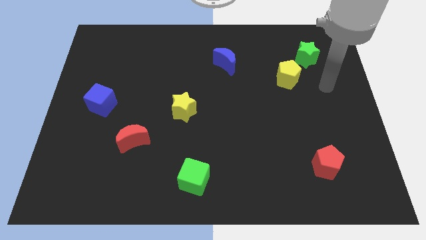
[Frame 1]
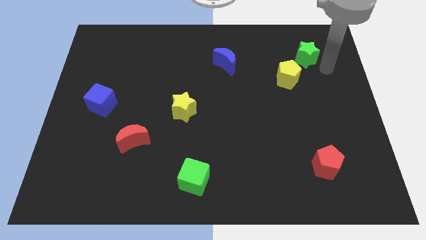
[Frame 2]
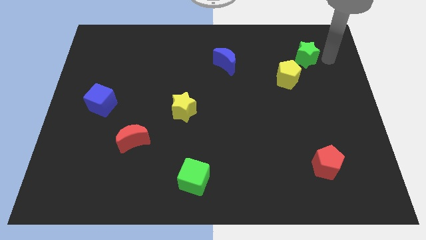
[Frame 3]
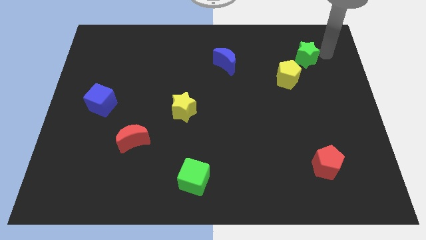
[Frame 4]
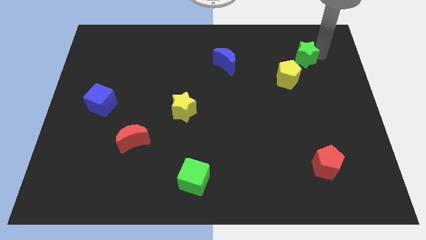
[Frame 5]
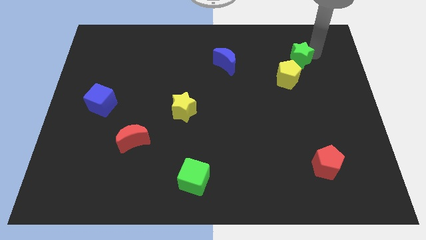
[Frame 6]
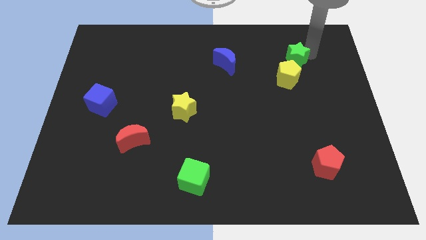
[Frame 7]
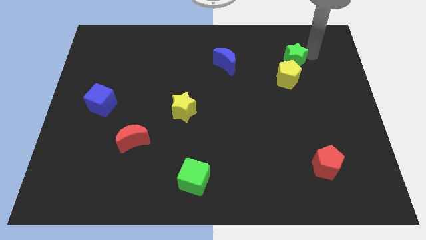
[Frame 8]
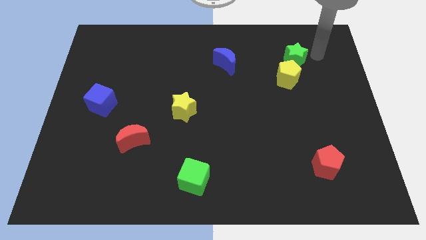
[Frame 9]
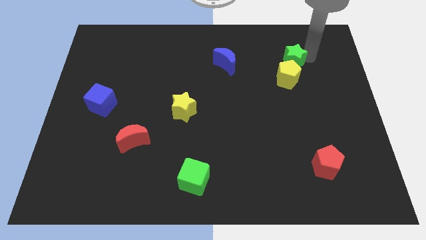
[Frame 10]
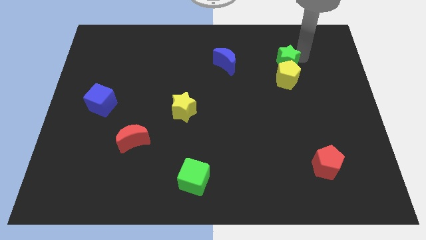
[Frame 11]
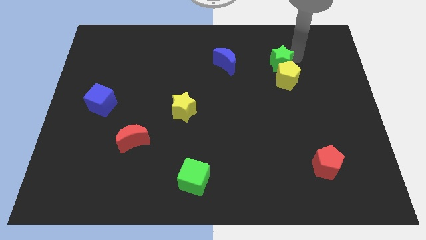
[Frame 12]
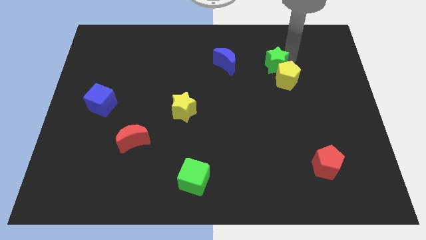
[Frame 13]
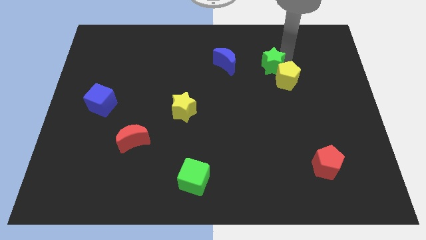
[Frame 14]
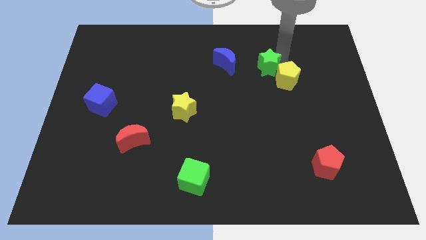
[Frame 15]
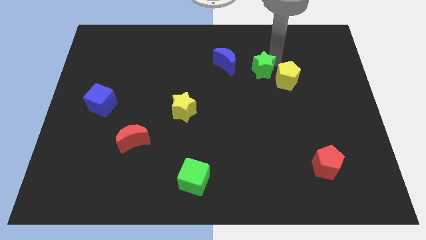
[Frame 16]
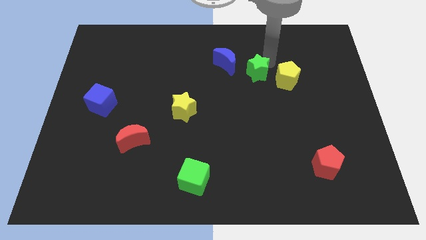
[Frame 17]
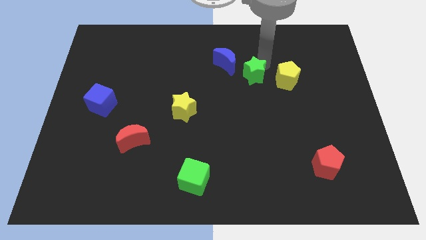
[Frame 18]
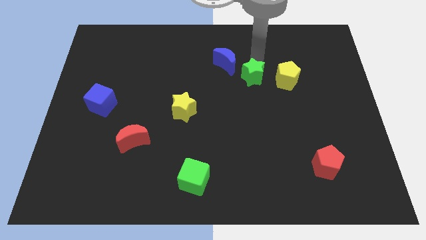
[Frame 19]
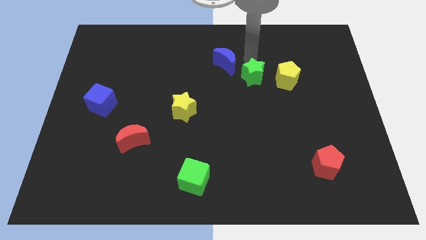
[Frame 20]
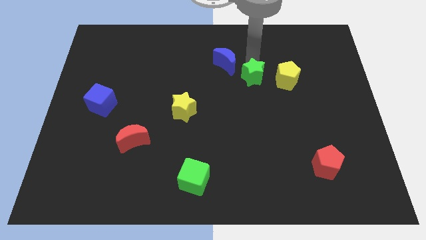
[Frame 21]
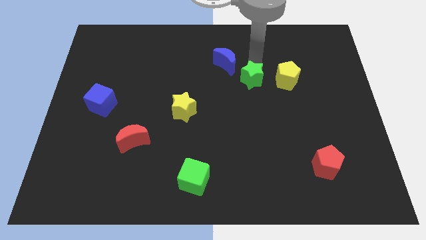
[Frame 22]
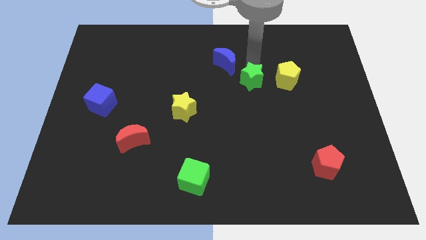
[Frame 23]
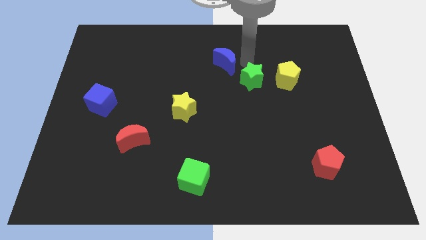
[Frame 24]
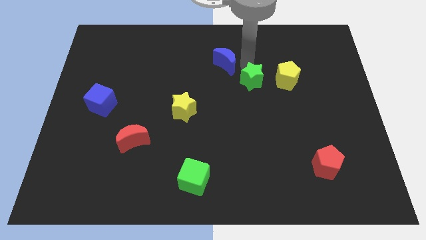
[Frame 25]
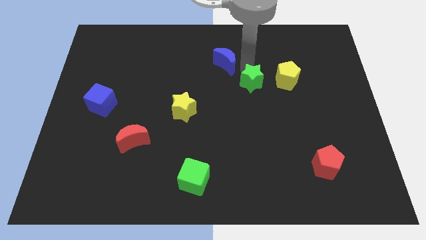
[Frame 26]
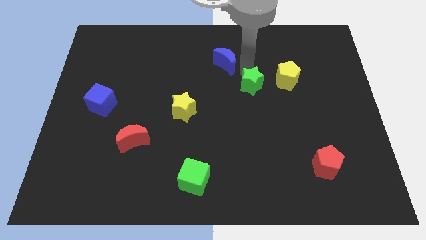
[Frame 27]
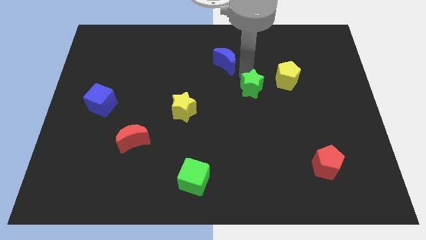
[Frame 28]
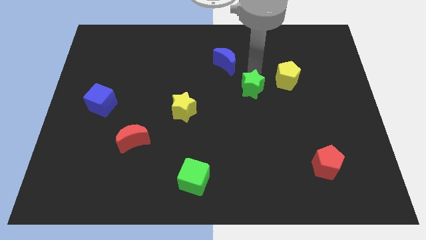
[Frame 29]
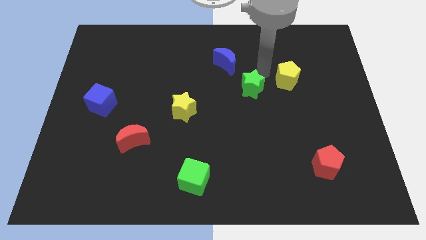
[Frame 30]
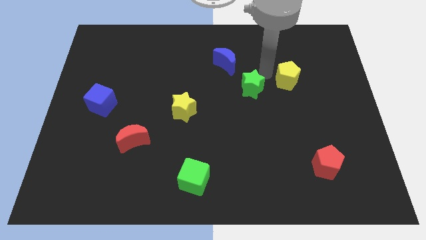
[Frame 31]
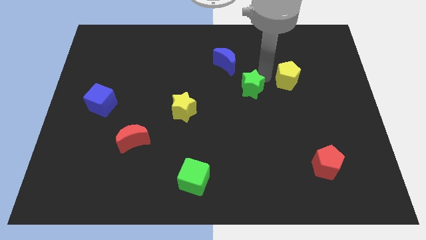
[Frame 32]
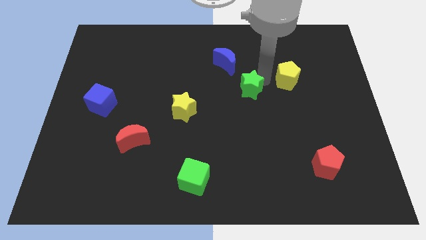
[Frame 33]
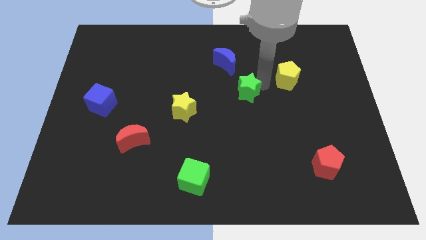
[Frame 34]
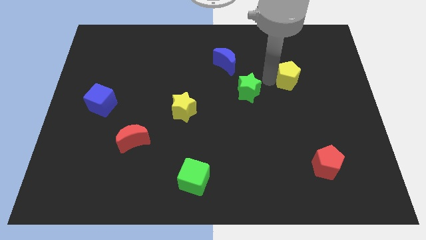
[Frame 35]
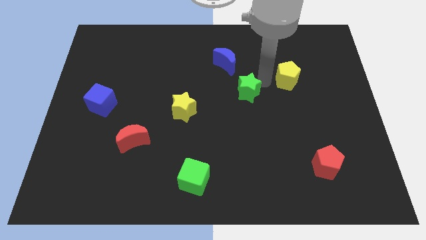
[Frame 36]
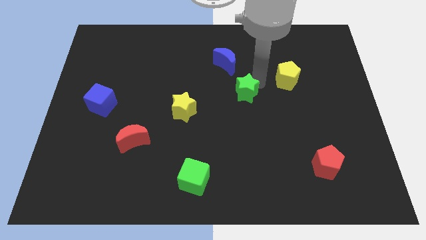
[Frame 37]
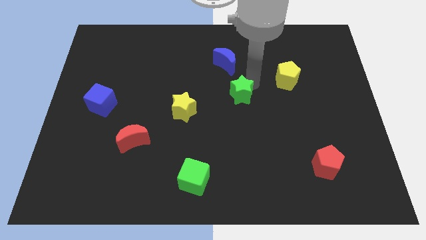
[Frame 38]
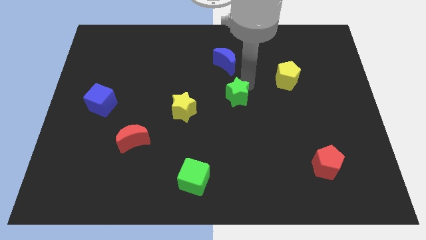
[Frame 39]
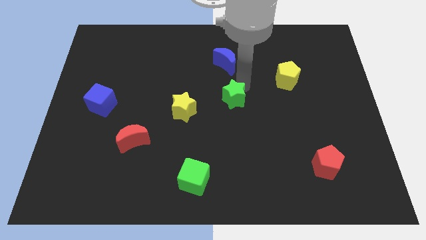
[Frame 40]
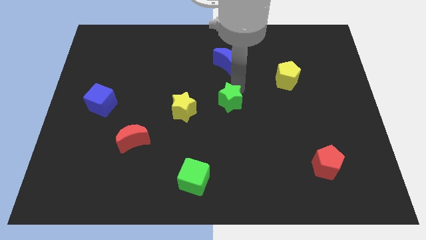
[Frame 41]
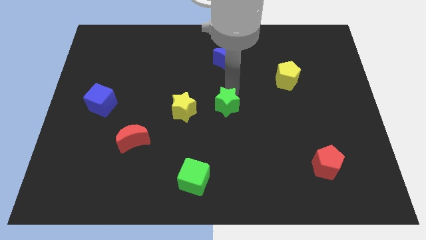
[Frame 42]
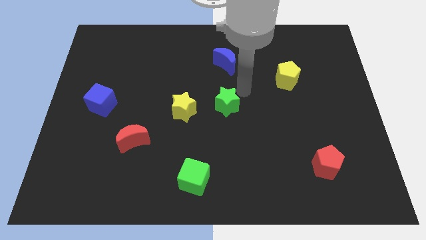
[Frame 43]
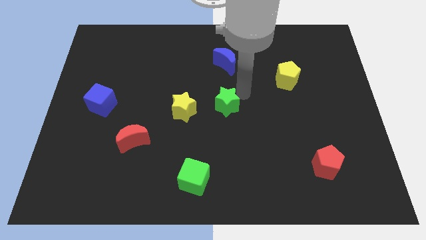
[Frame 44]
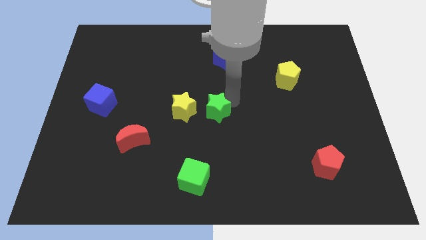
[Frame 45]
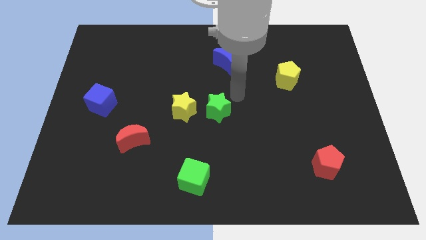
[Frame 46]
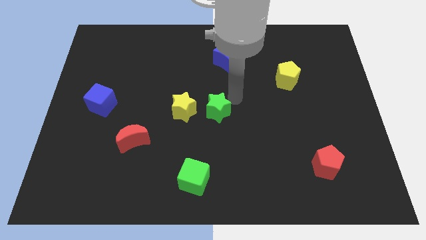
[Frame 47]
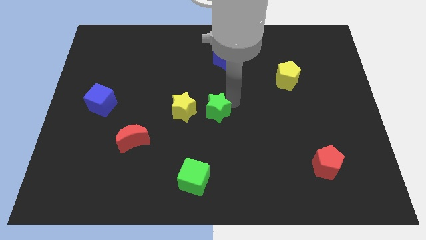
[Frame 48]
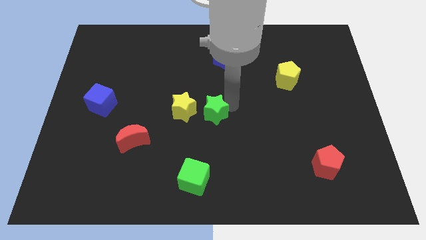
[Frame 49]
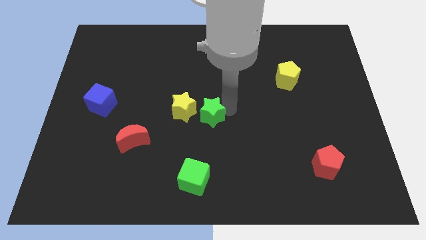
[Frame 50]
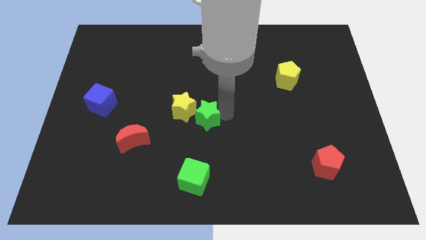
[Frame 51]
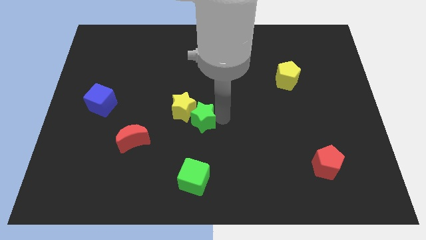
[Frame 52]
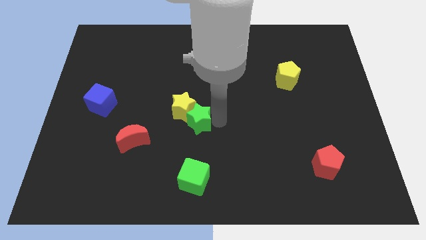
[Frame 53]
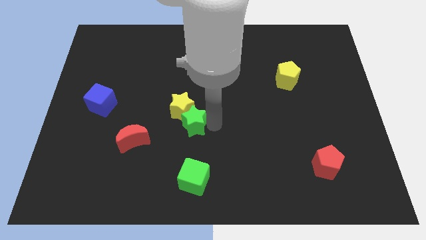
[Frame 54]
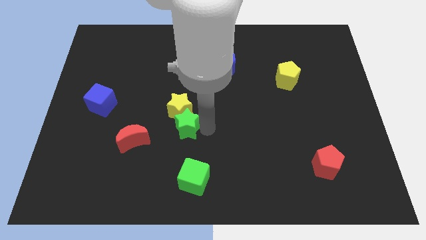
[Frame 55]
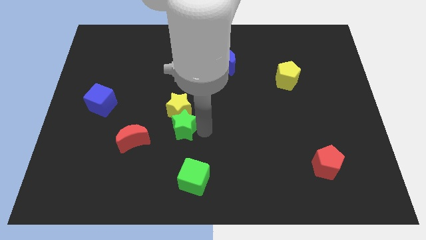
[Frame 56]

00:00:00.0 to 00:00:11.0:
move the green star to the bottom left of the yellow star

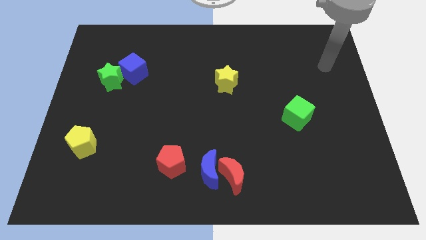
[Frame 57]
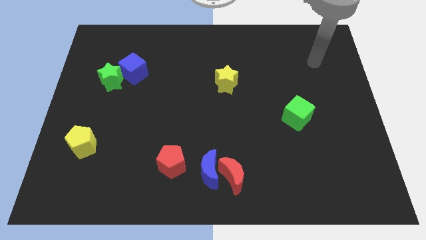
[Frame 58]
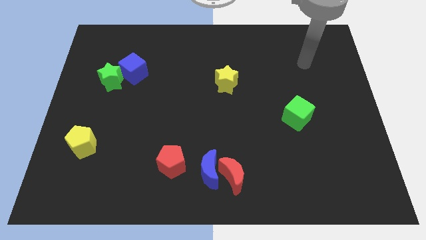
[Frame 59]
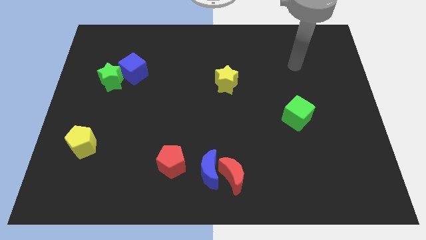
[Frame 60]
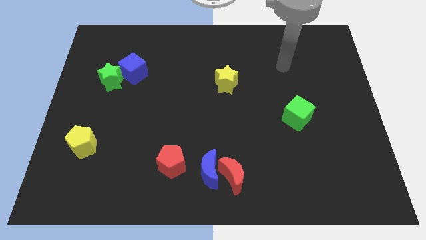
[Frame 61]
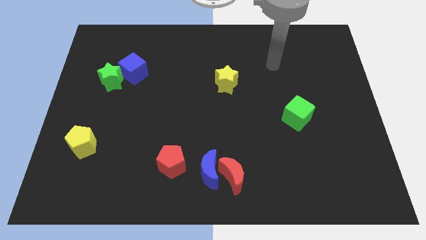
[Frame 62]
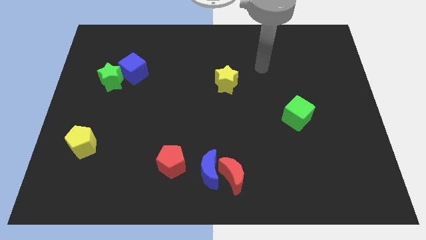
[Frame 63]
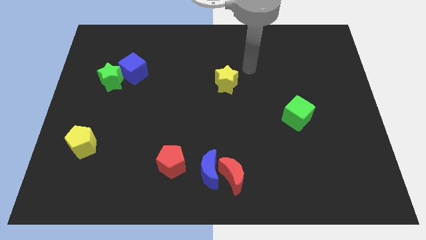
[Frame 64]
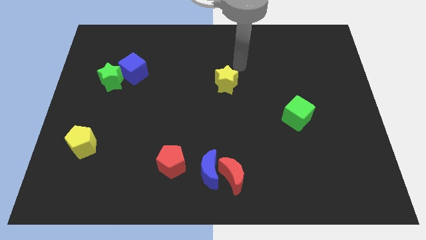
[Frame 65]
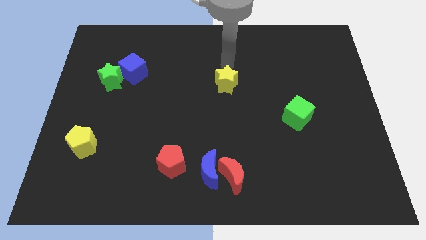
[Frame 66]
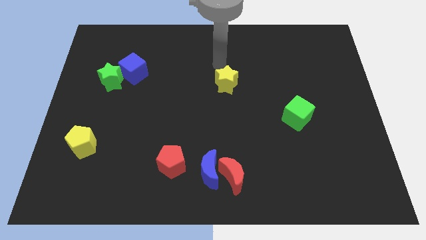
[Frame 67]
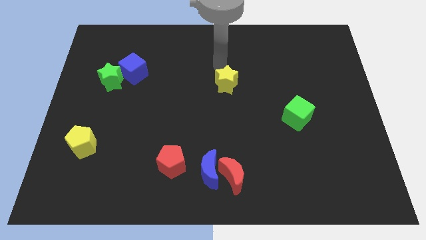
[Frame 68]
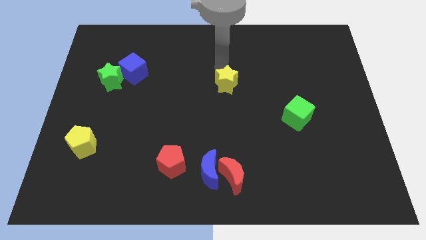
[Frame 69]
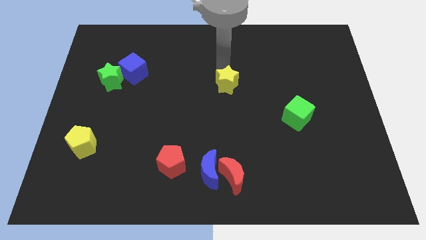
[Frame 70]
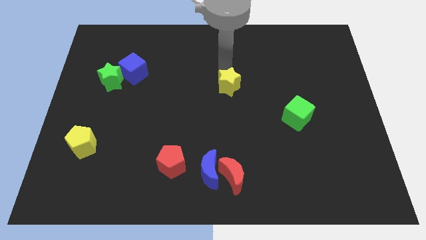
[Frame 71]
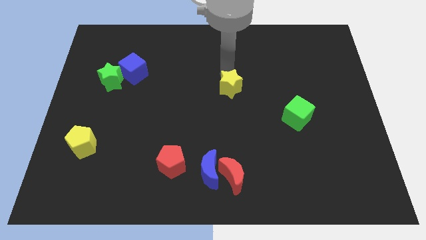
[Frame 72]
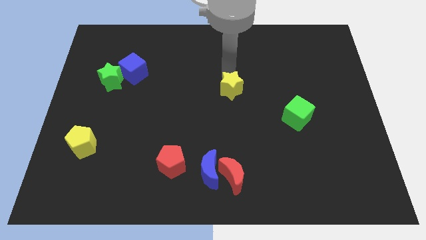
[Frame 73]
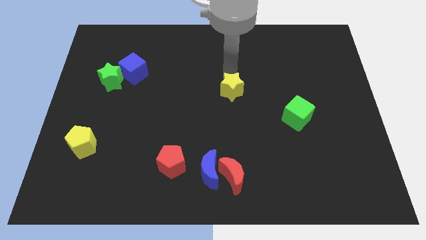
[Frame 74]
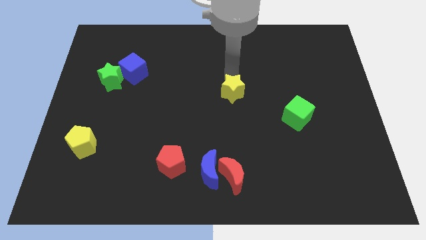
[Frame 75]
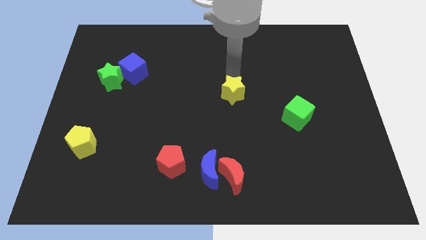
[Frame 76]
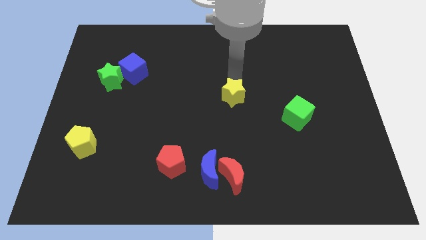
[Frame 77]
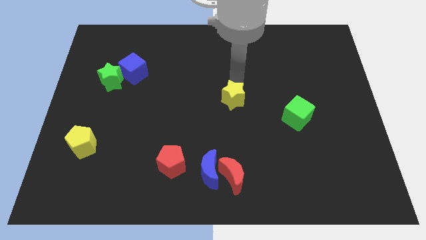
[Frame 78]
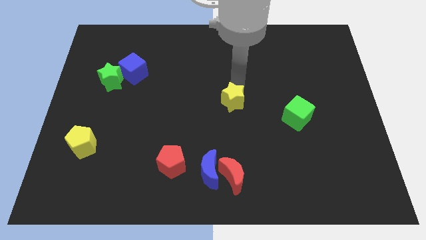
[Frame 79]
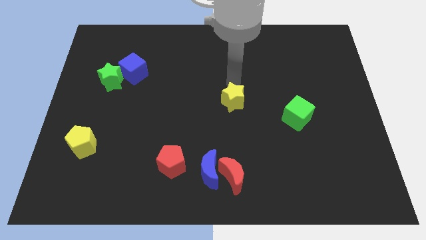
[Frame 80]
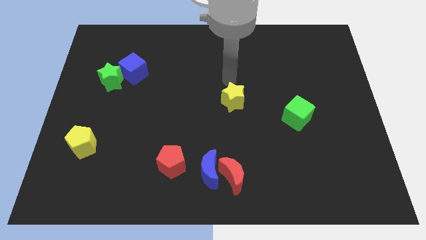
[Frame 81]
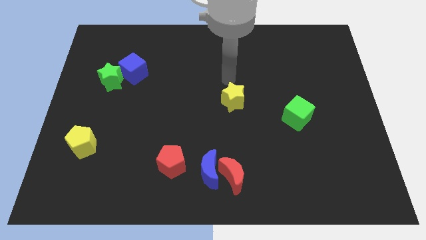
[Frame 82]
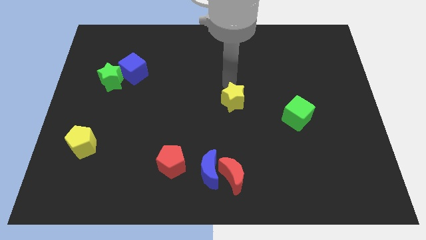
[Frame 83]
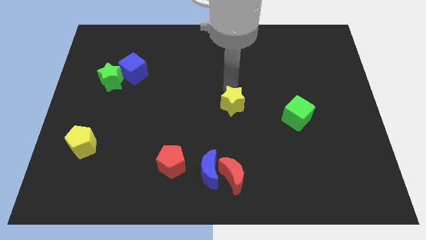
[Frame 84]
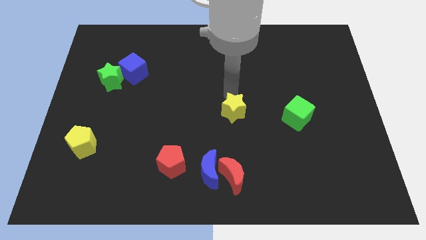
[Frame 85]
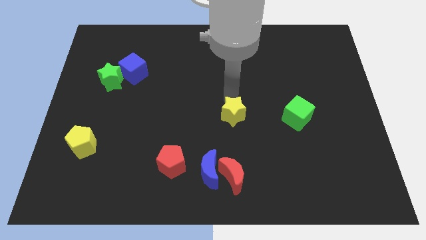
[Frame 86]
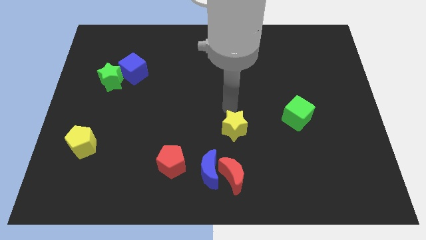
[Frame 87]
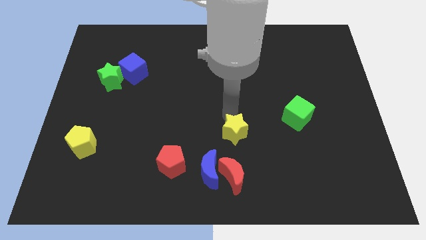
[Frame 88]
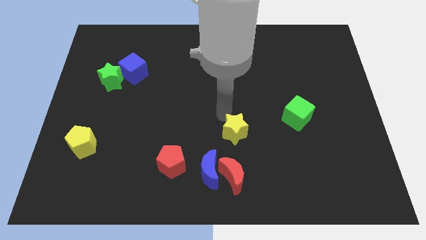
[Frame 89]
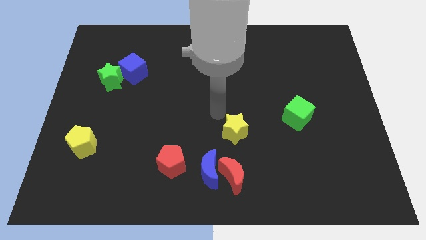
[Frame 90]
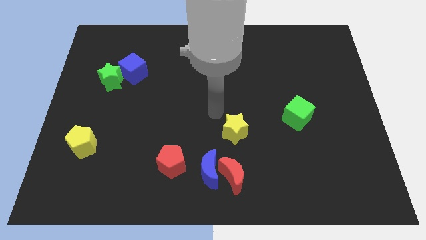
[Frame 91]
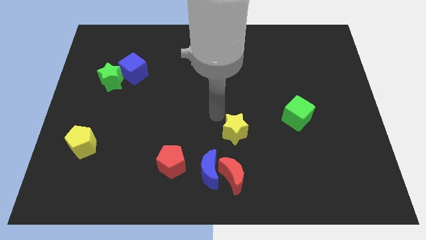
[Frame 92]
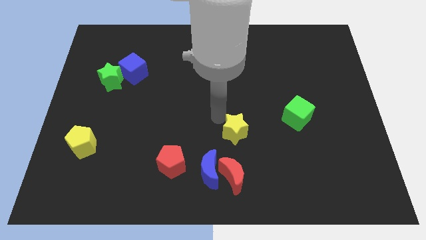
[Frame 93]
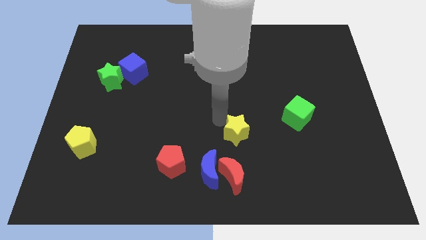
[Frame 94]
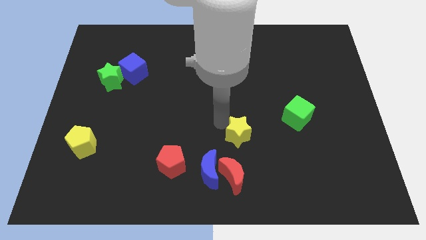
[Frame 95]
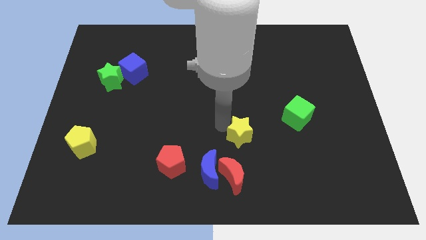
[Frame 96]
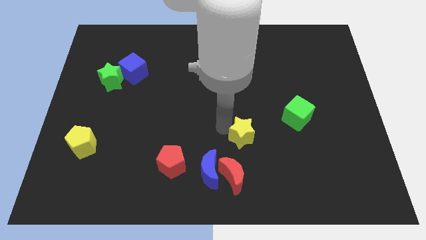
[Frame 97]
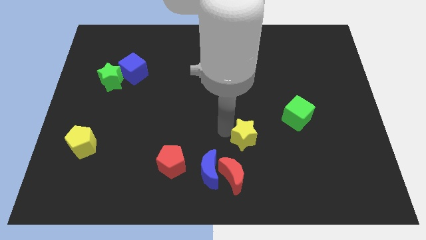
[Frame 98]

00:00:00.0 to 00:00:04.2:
move the yellow star diagonally up and to the right of the red moon
